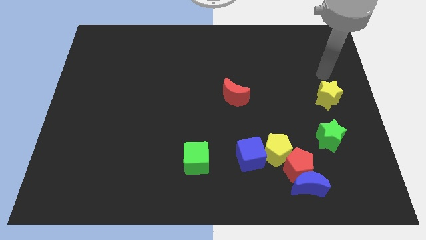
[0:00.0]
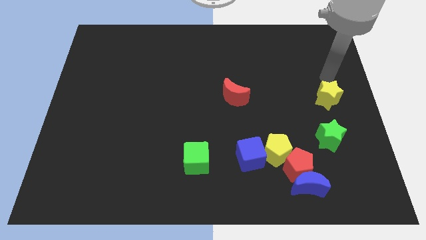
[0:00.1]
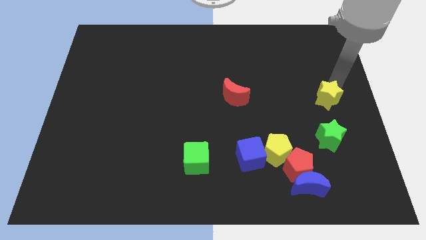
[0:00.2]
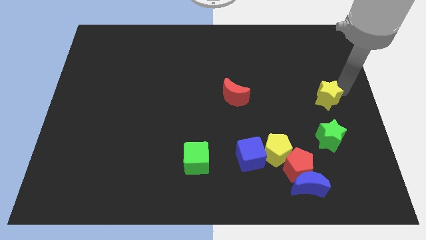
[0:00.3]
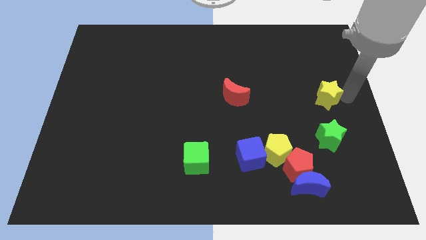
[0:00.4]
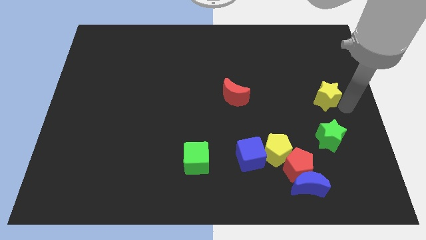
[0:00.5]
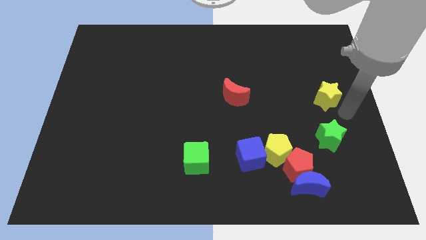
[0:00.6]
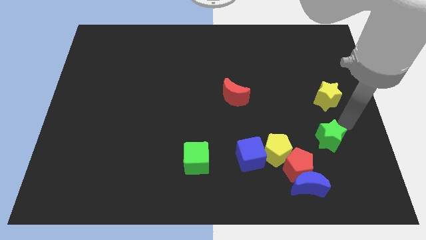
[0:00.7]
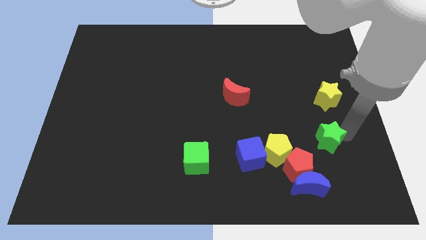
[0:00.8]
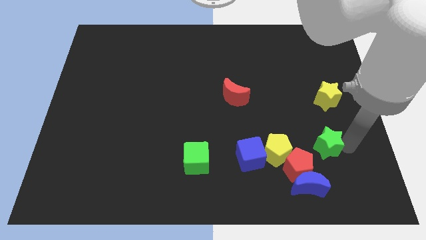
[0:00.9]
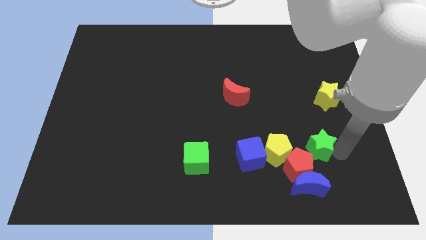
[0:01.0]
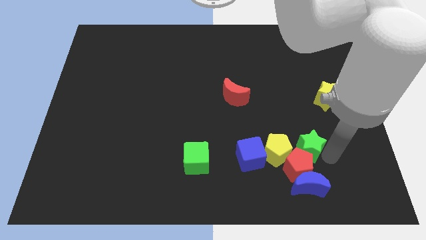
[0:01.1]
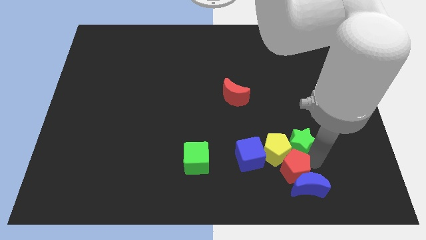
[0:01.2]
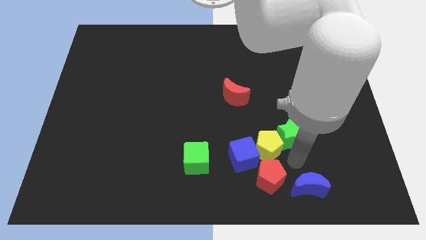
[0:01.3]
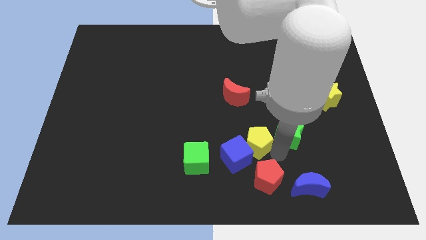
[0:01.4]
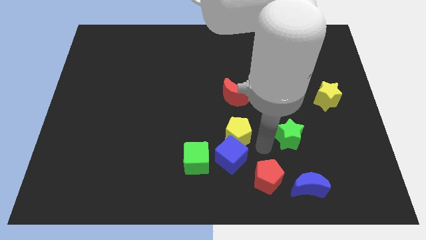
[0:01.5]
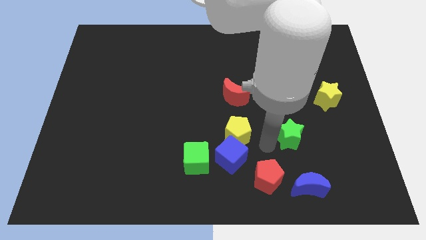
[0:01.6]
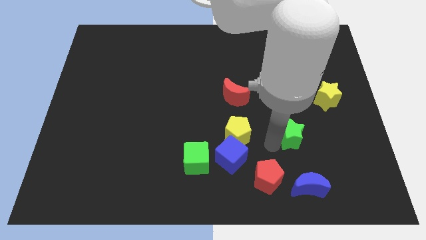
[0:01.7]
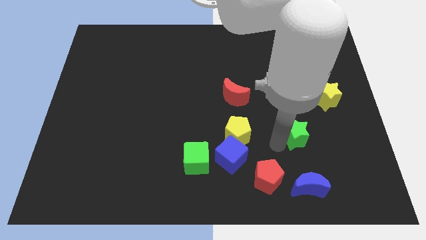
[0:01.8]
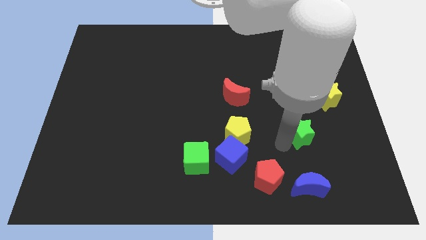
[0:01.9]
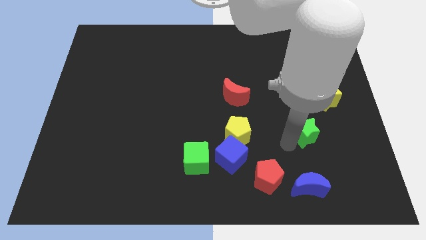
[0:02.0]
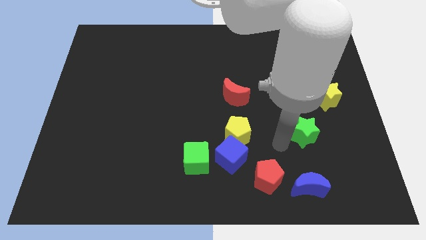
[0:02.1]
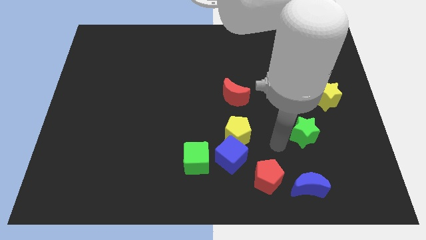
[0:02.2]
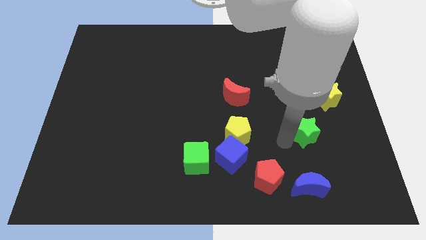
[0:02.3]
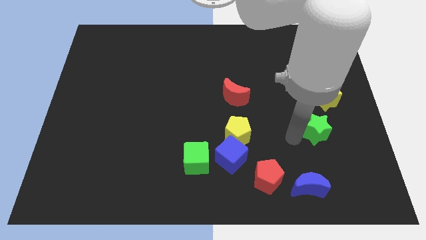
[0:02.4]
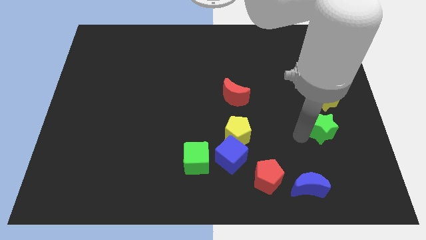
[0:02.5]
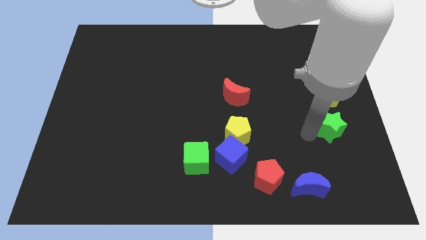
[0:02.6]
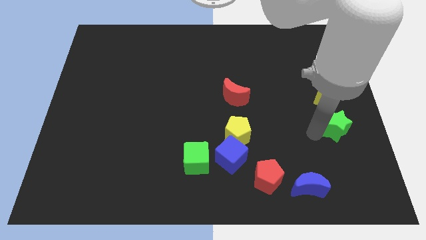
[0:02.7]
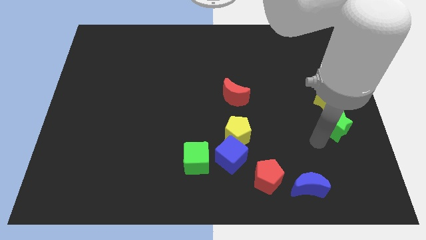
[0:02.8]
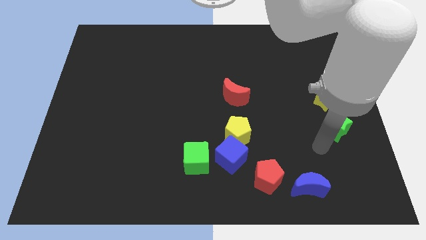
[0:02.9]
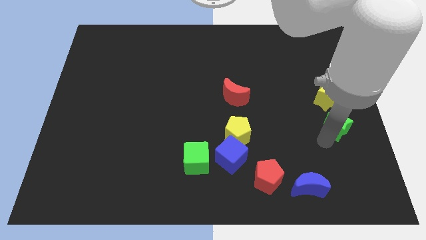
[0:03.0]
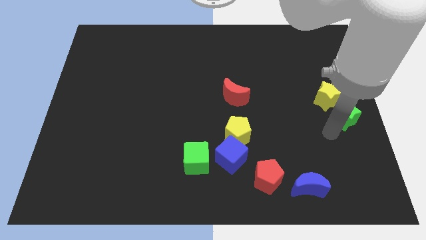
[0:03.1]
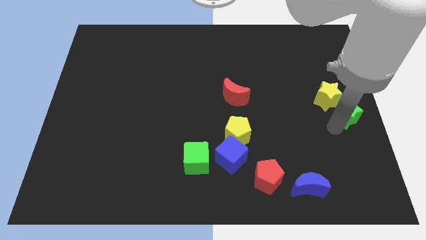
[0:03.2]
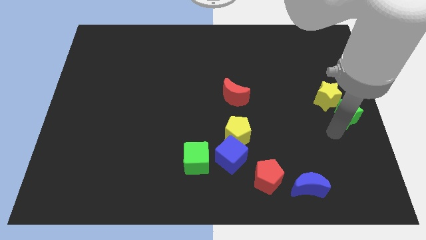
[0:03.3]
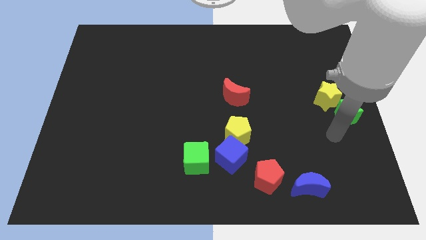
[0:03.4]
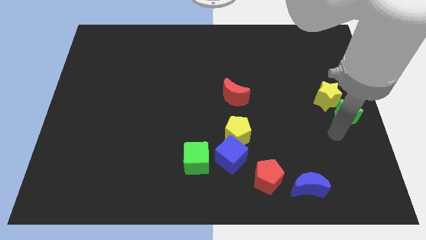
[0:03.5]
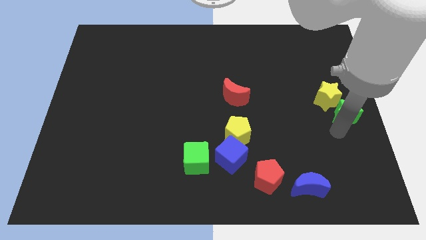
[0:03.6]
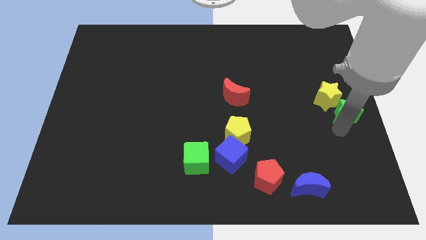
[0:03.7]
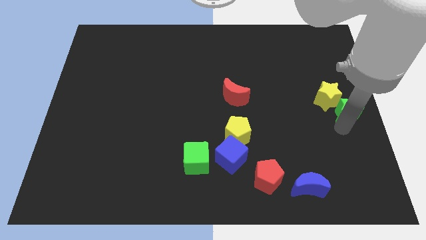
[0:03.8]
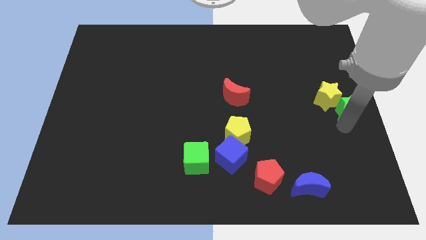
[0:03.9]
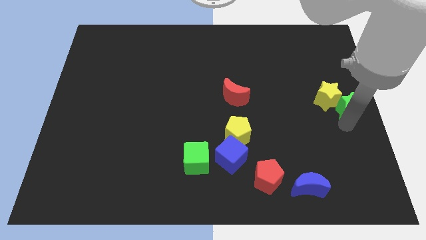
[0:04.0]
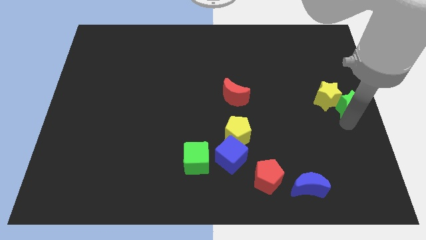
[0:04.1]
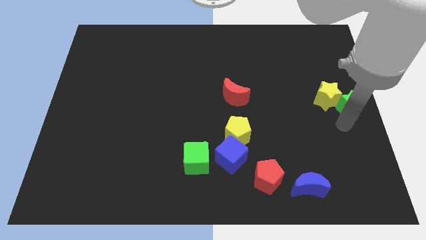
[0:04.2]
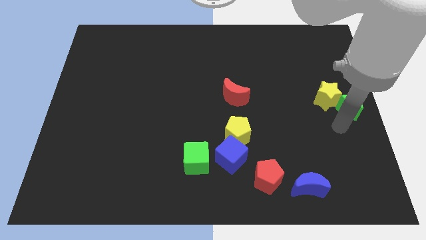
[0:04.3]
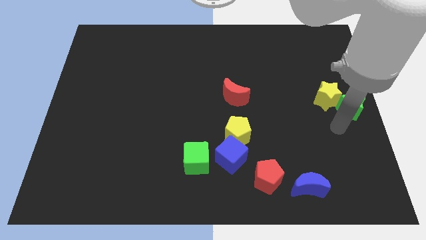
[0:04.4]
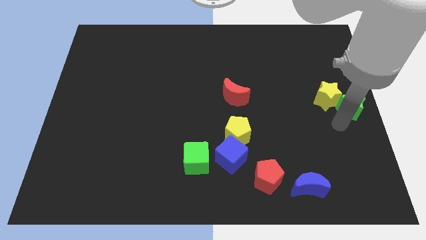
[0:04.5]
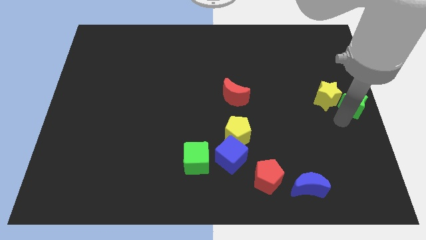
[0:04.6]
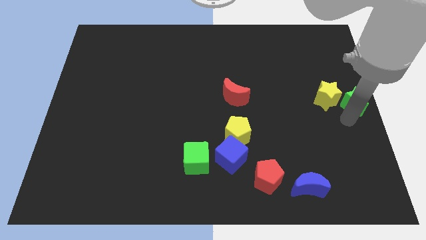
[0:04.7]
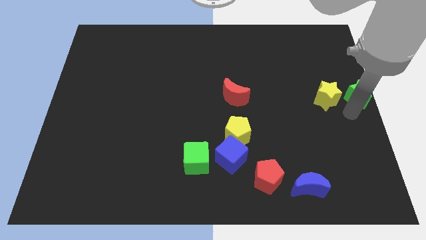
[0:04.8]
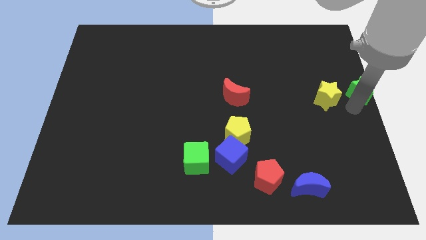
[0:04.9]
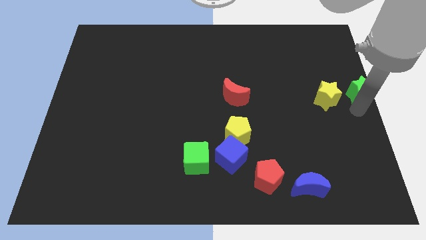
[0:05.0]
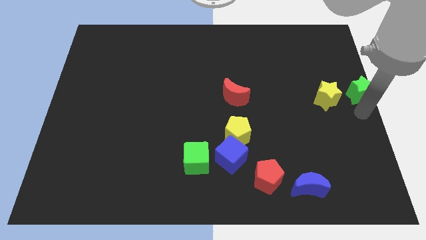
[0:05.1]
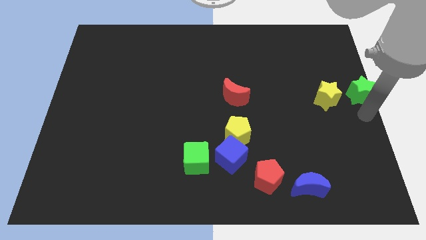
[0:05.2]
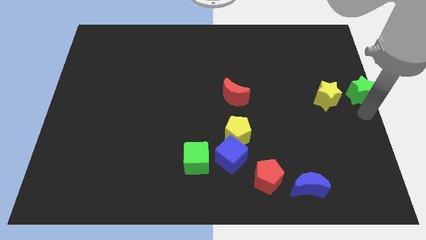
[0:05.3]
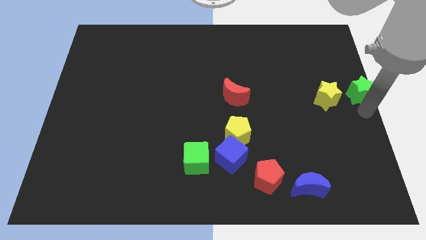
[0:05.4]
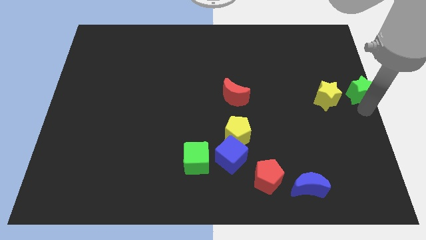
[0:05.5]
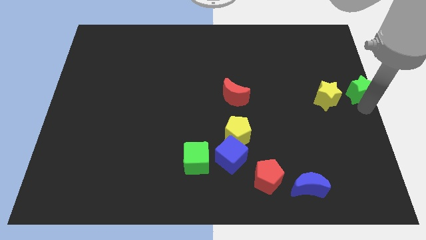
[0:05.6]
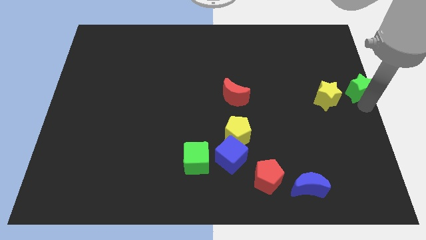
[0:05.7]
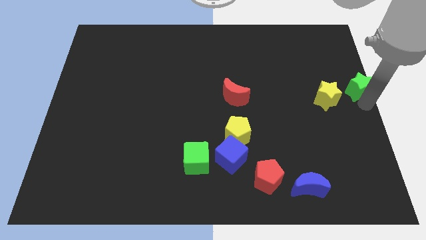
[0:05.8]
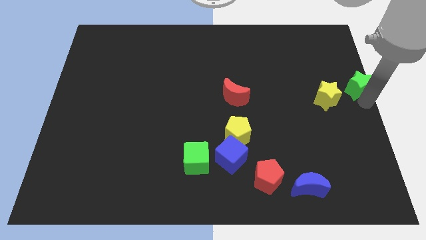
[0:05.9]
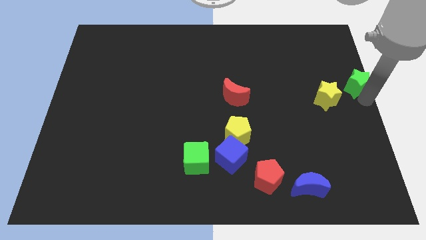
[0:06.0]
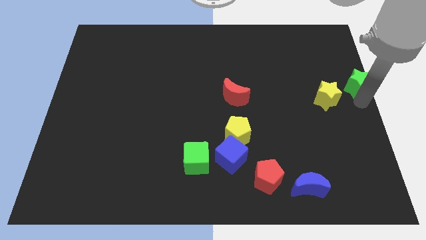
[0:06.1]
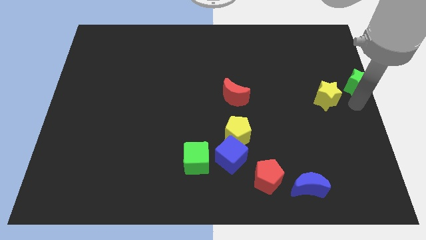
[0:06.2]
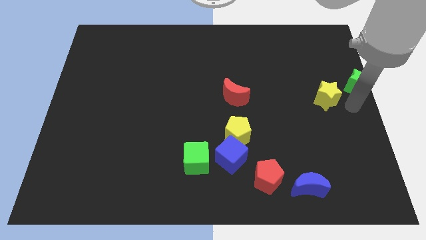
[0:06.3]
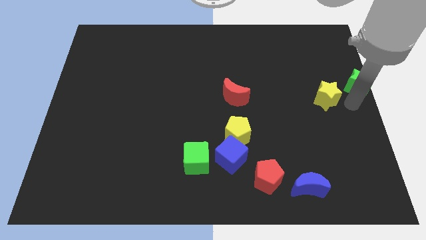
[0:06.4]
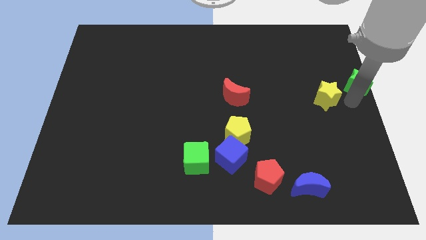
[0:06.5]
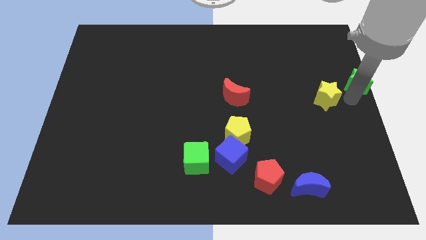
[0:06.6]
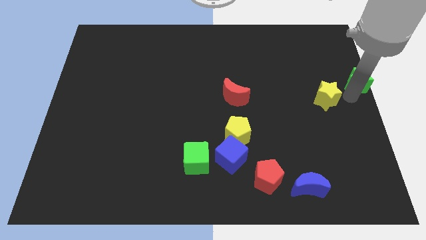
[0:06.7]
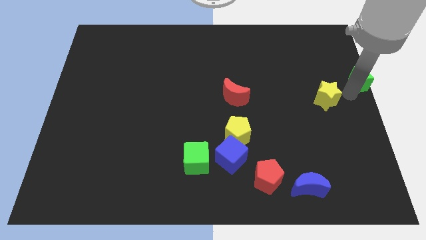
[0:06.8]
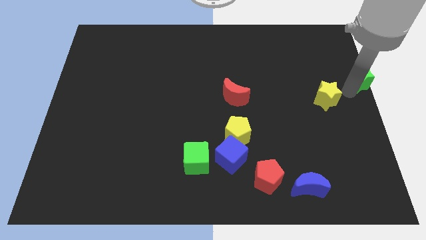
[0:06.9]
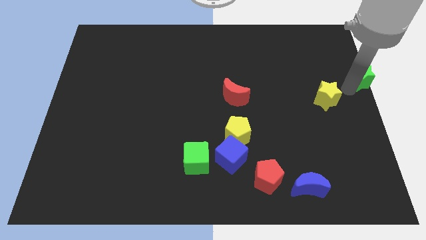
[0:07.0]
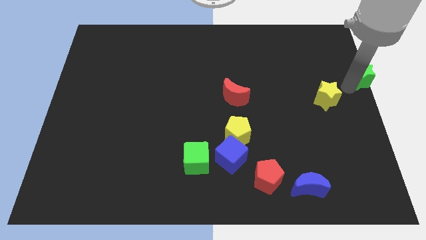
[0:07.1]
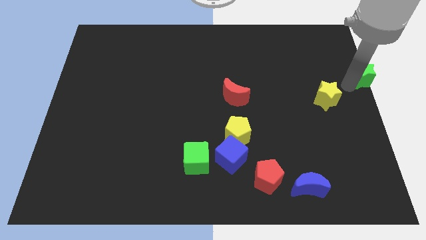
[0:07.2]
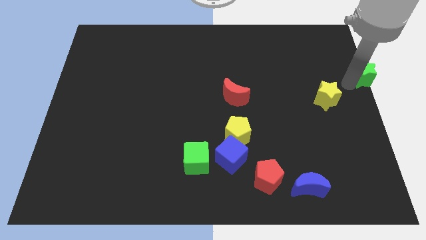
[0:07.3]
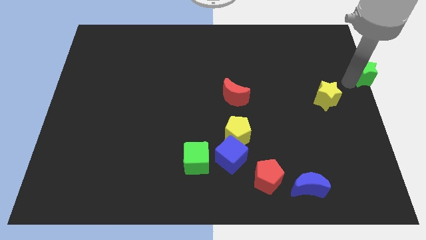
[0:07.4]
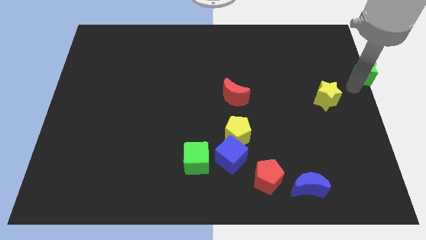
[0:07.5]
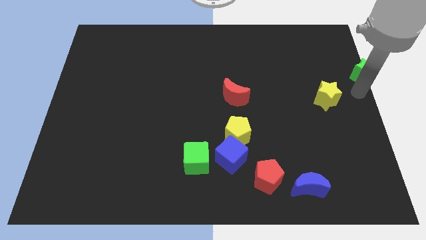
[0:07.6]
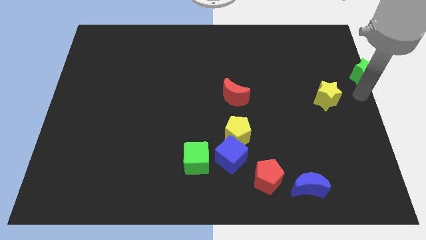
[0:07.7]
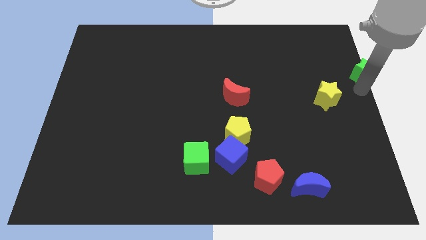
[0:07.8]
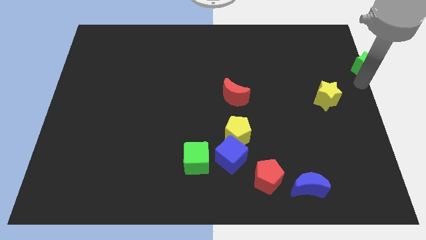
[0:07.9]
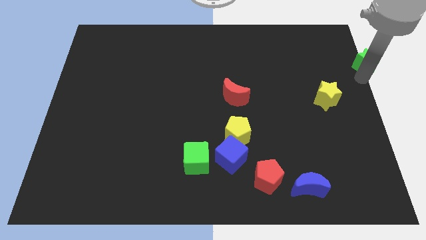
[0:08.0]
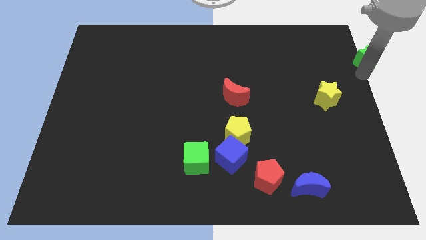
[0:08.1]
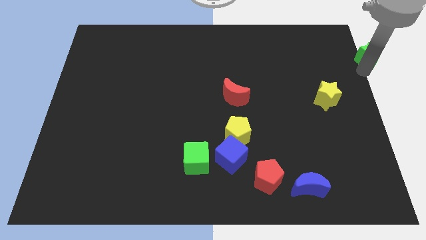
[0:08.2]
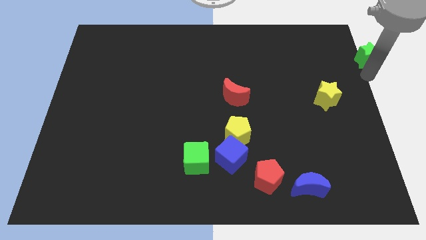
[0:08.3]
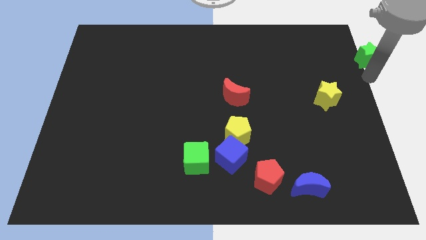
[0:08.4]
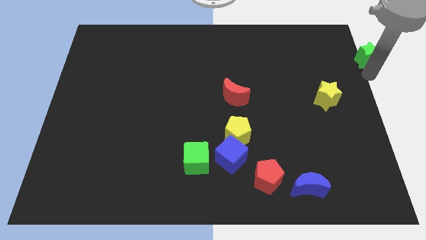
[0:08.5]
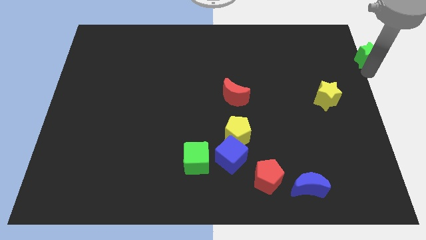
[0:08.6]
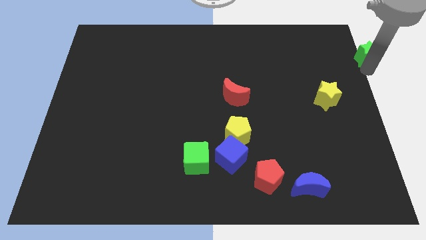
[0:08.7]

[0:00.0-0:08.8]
push the green star to the top right corner
